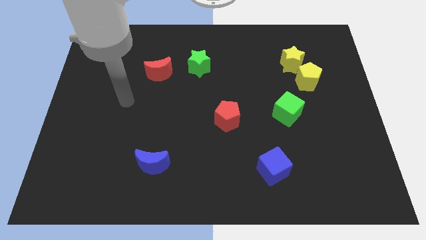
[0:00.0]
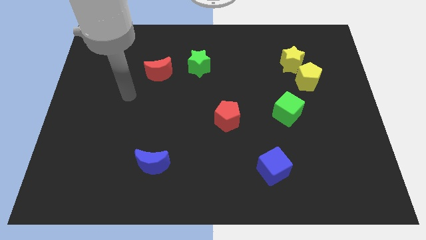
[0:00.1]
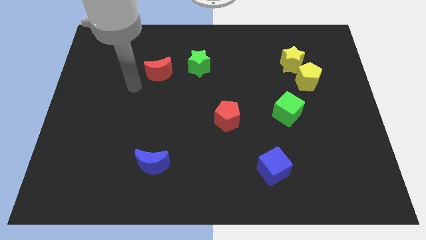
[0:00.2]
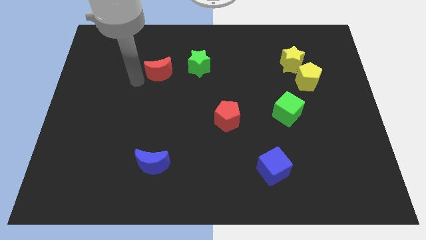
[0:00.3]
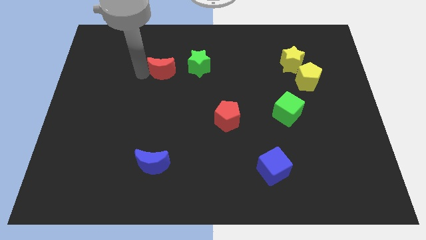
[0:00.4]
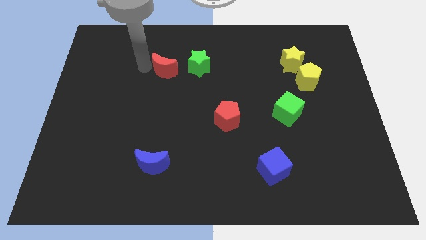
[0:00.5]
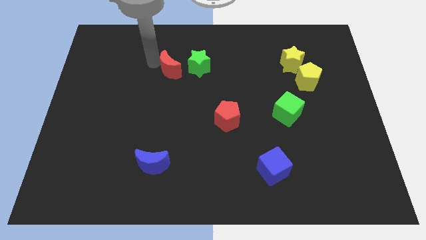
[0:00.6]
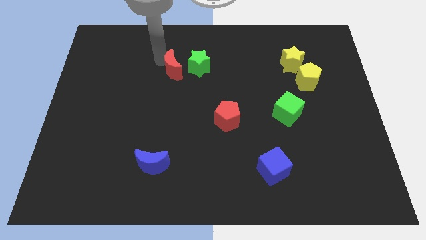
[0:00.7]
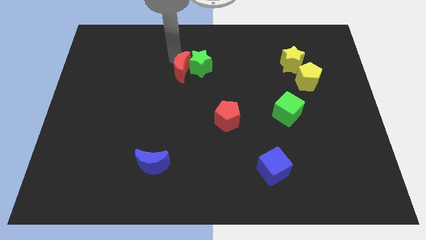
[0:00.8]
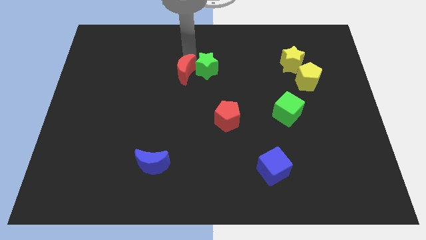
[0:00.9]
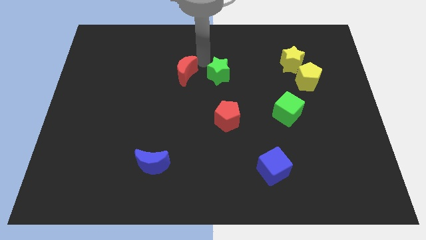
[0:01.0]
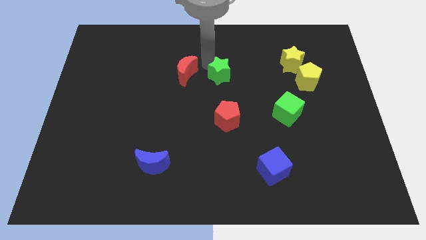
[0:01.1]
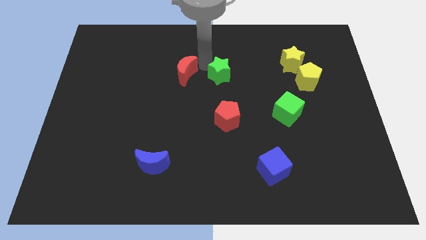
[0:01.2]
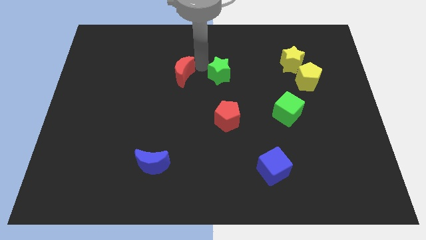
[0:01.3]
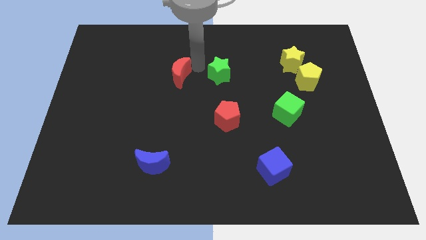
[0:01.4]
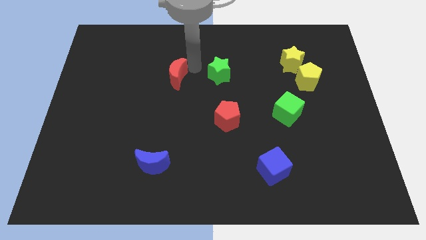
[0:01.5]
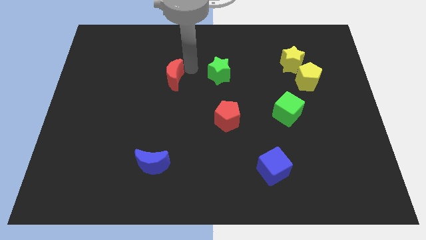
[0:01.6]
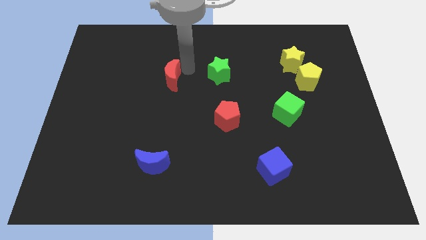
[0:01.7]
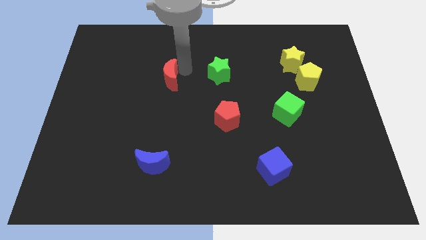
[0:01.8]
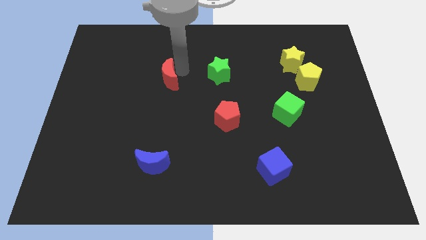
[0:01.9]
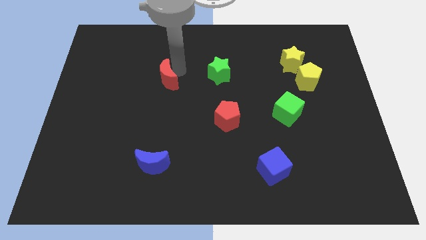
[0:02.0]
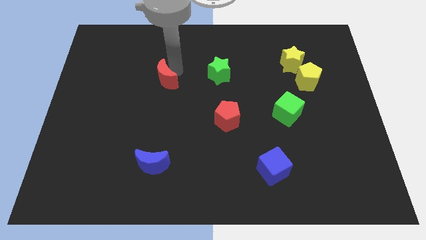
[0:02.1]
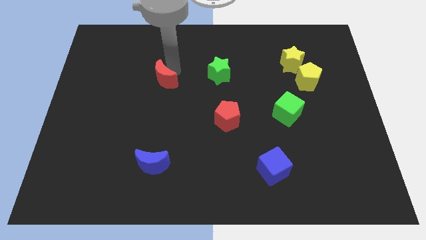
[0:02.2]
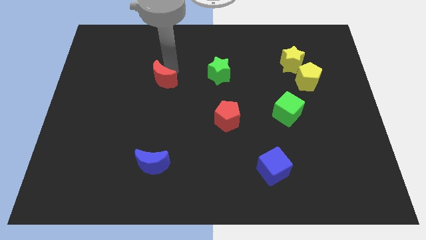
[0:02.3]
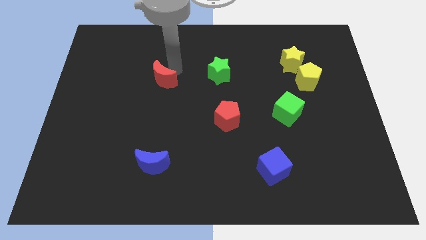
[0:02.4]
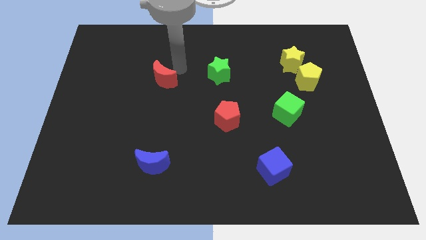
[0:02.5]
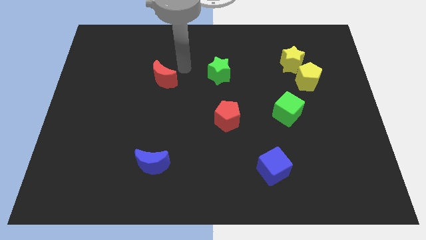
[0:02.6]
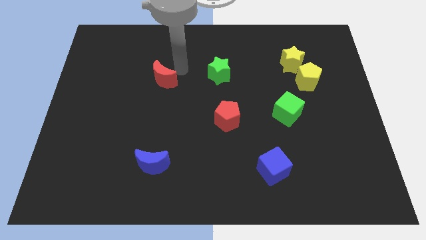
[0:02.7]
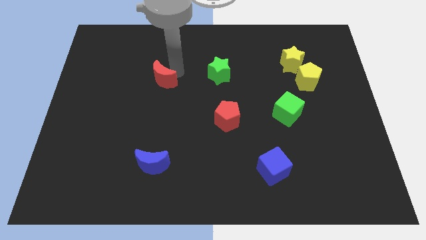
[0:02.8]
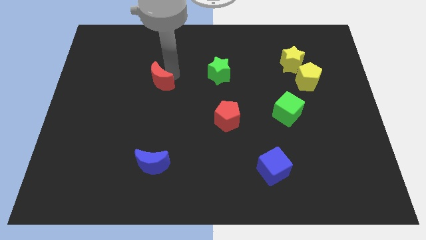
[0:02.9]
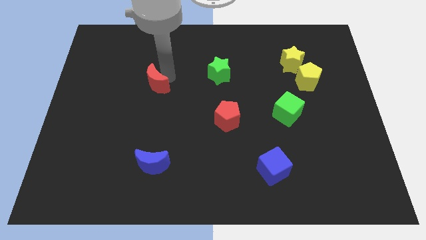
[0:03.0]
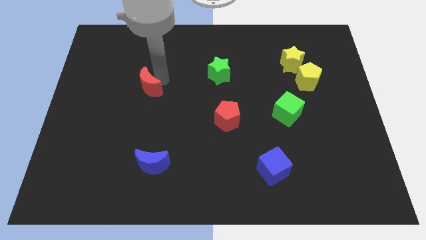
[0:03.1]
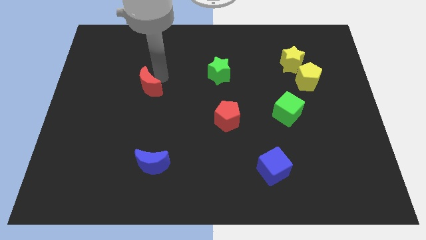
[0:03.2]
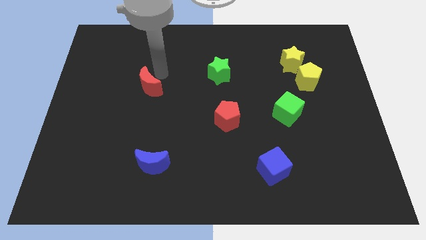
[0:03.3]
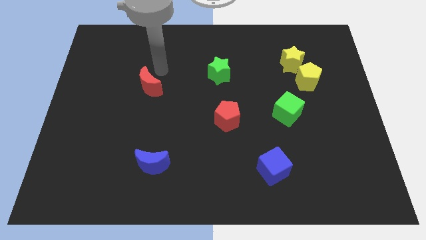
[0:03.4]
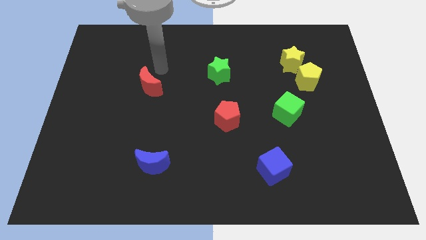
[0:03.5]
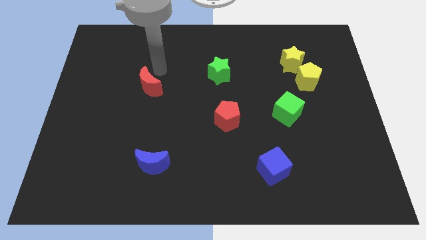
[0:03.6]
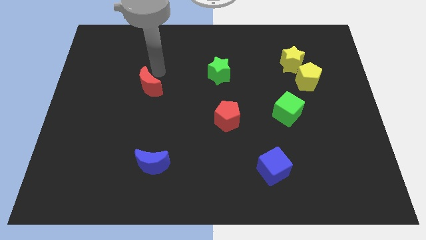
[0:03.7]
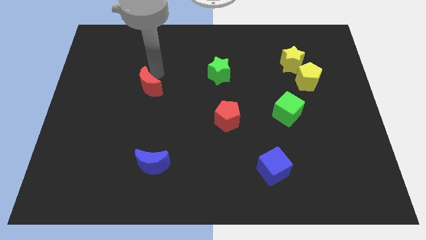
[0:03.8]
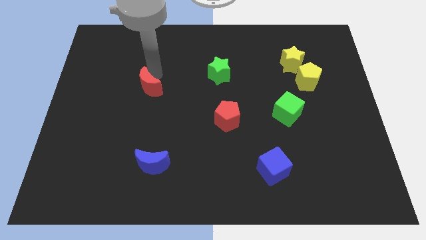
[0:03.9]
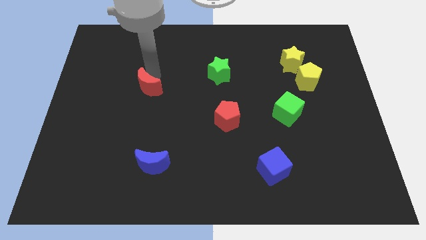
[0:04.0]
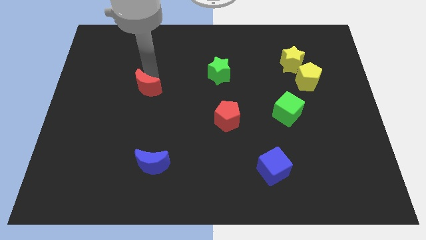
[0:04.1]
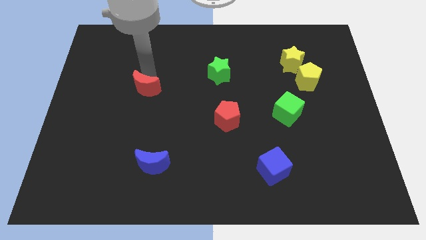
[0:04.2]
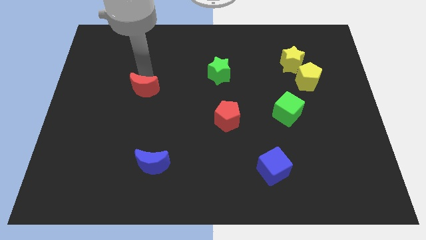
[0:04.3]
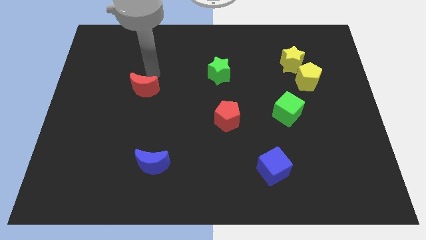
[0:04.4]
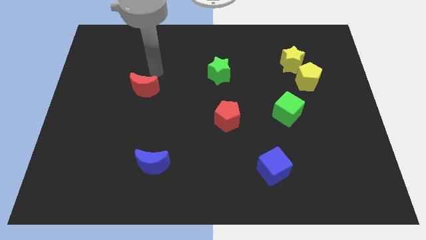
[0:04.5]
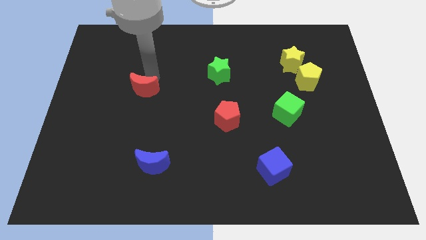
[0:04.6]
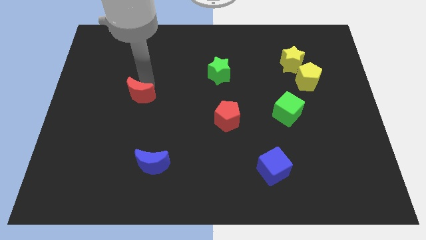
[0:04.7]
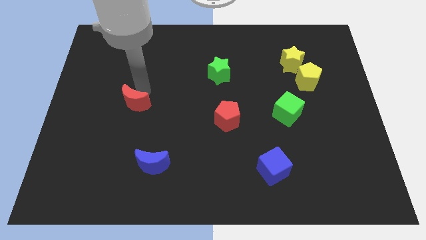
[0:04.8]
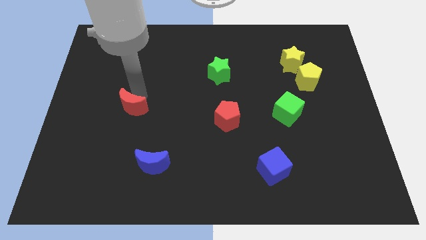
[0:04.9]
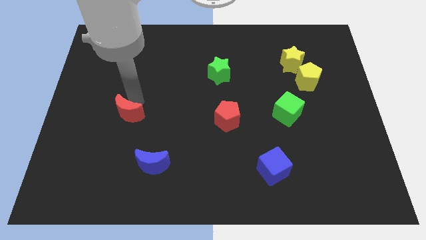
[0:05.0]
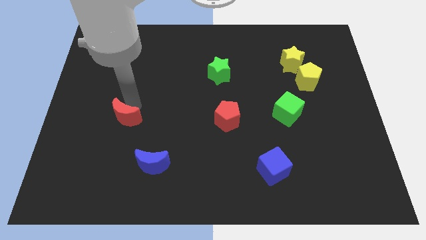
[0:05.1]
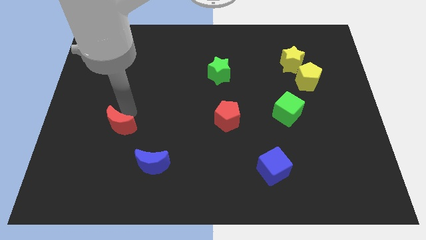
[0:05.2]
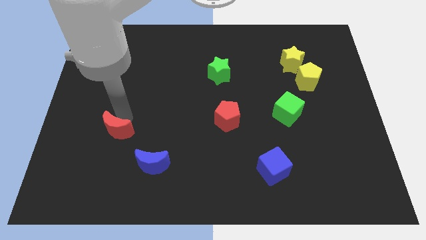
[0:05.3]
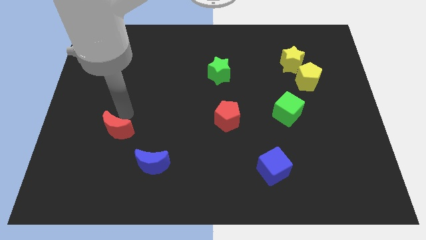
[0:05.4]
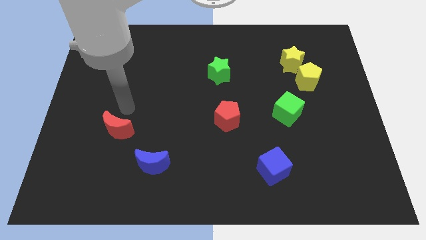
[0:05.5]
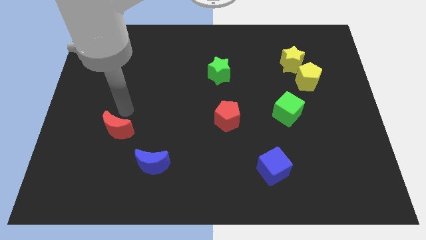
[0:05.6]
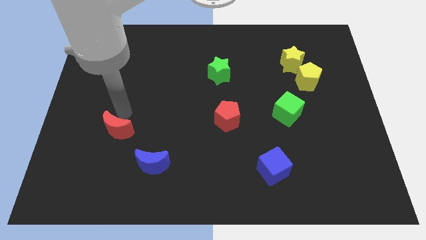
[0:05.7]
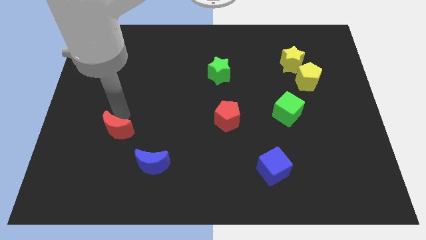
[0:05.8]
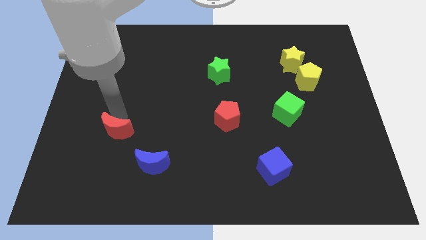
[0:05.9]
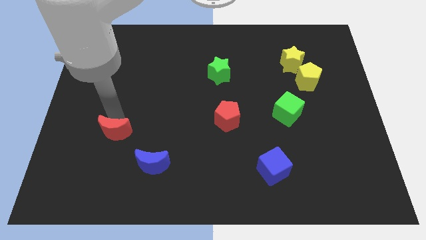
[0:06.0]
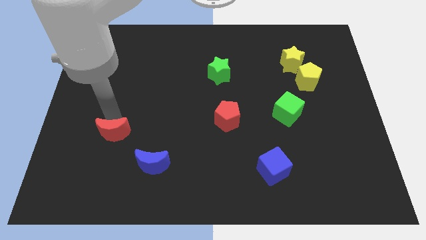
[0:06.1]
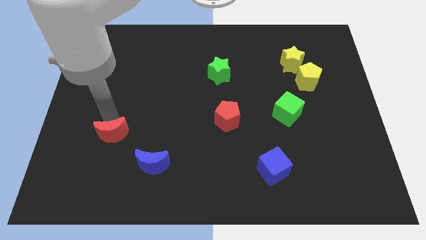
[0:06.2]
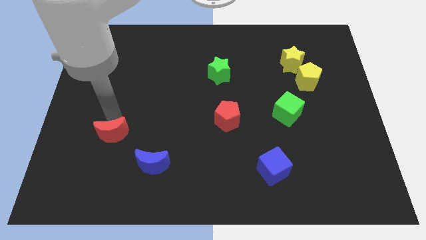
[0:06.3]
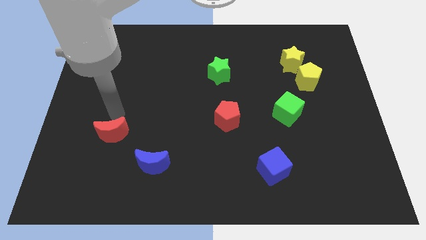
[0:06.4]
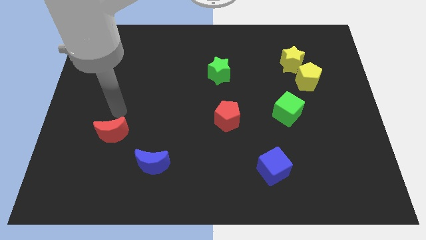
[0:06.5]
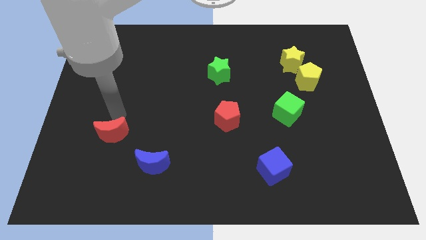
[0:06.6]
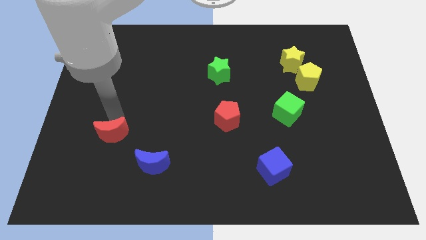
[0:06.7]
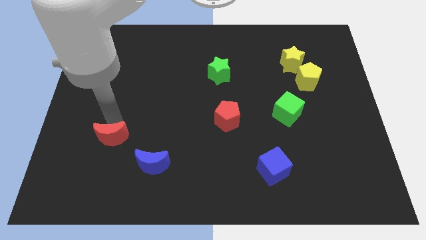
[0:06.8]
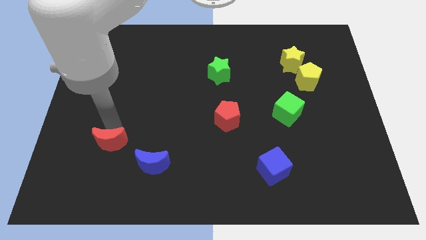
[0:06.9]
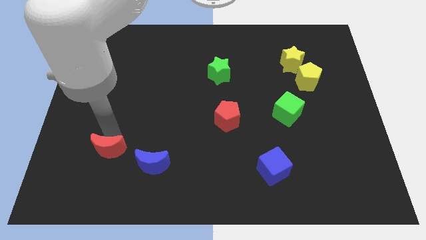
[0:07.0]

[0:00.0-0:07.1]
push the red moon just left of the blue moon

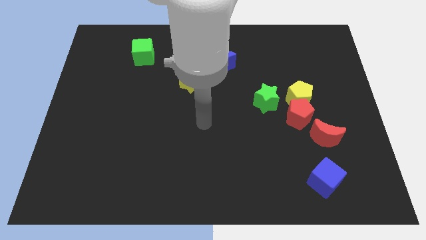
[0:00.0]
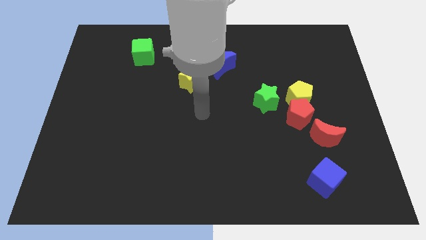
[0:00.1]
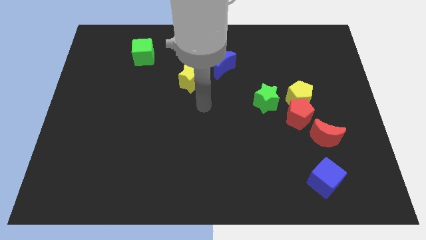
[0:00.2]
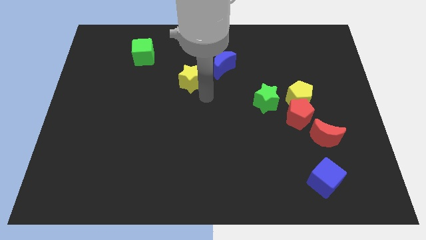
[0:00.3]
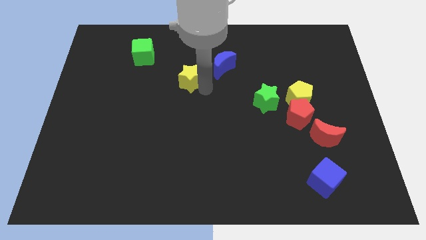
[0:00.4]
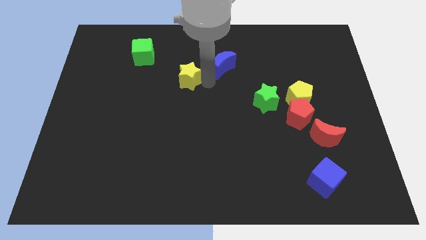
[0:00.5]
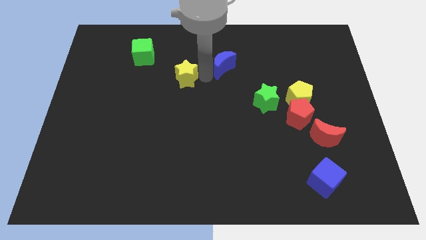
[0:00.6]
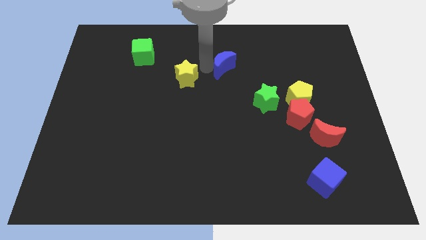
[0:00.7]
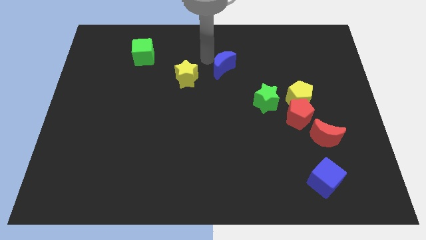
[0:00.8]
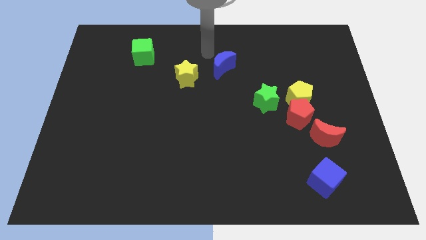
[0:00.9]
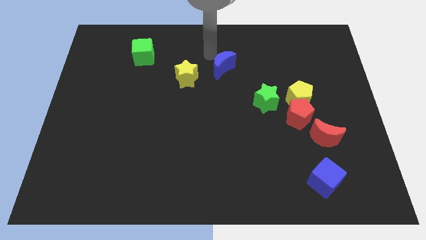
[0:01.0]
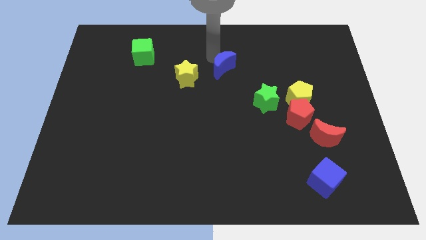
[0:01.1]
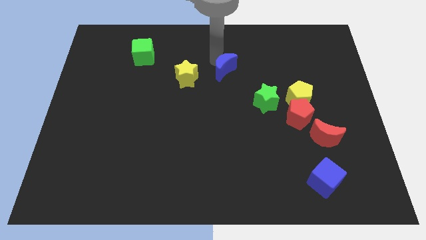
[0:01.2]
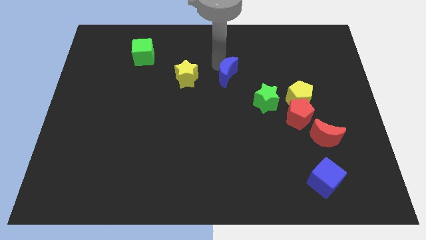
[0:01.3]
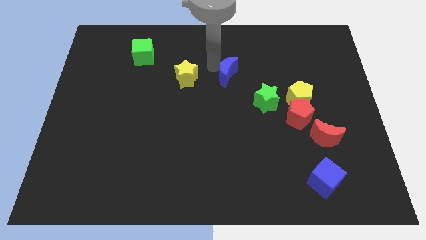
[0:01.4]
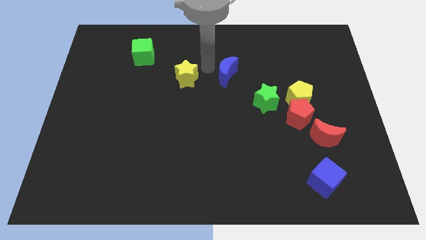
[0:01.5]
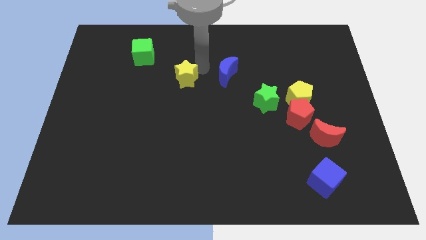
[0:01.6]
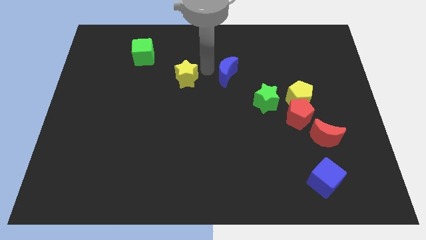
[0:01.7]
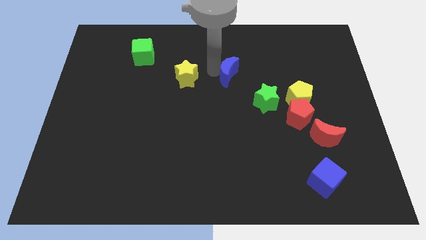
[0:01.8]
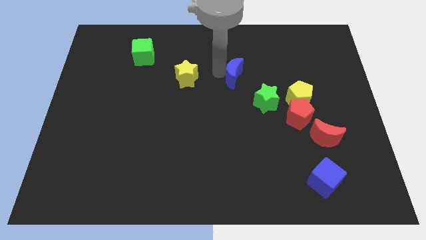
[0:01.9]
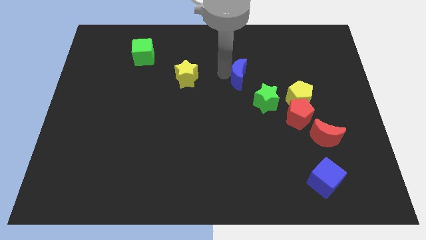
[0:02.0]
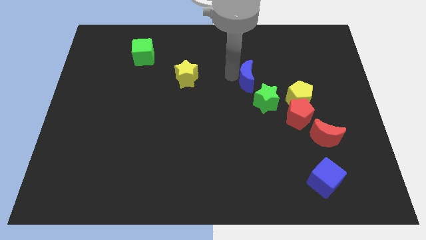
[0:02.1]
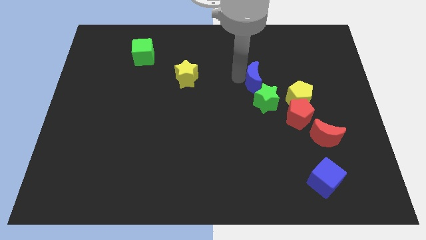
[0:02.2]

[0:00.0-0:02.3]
push the blue moon to the top left of the yellow pentagon
